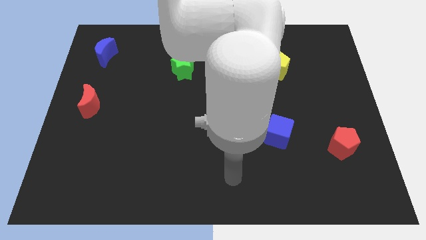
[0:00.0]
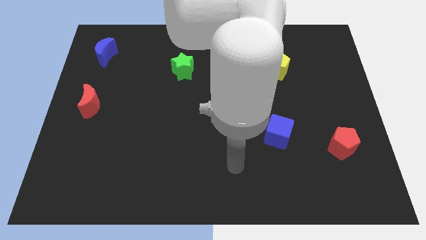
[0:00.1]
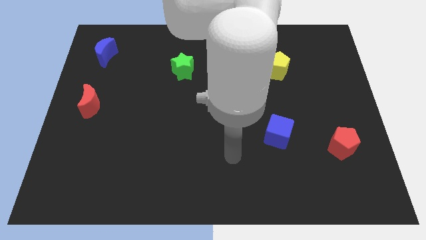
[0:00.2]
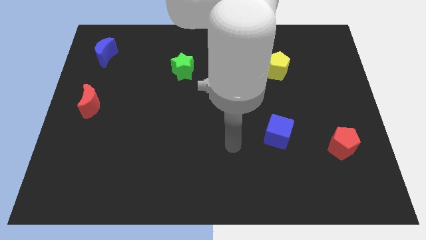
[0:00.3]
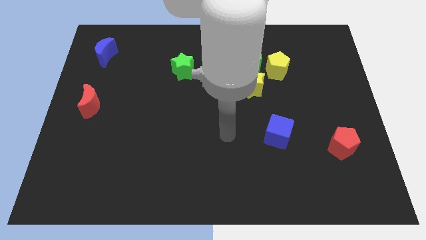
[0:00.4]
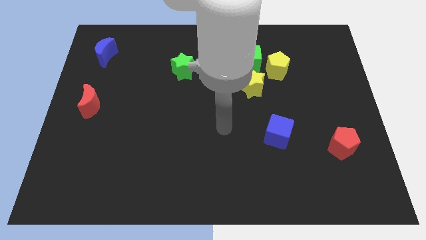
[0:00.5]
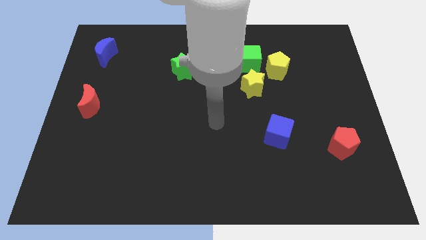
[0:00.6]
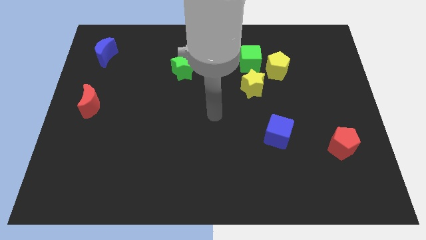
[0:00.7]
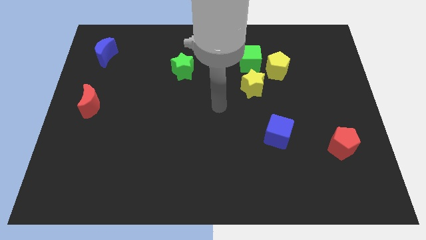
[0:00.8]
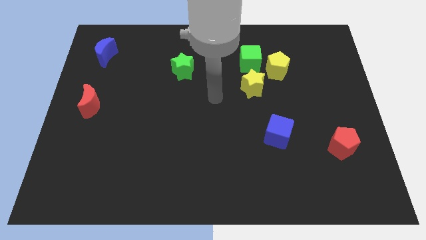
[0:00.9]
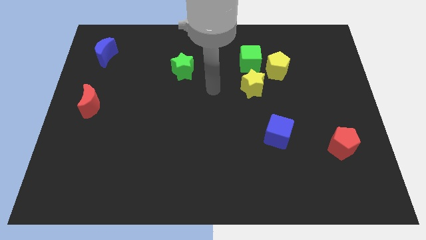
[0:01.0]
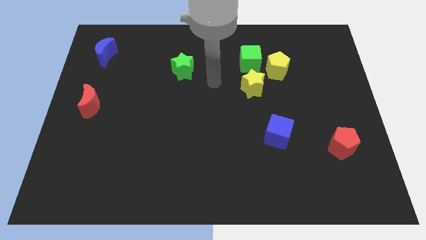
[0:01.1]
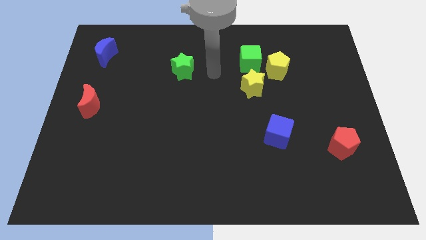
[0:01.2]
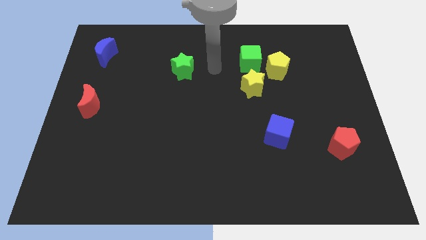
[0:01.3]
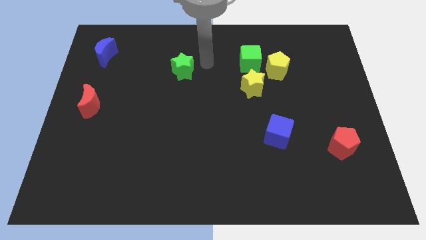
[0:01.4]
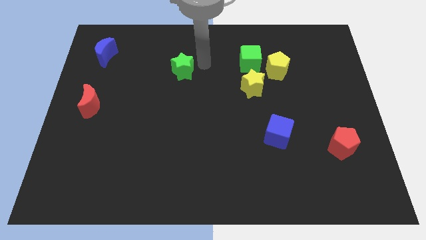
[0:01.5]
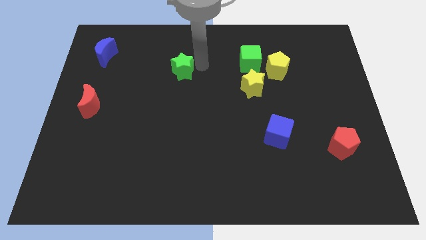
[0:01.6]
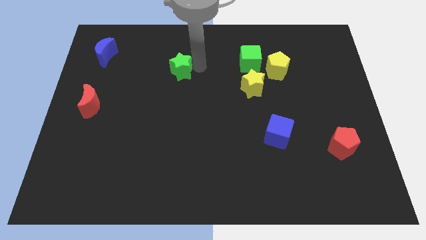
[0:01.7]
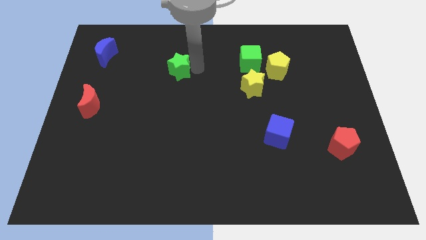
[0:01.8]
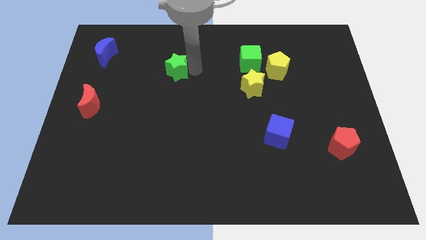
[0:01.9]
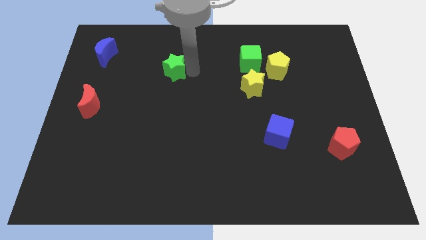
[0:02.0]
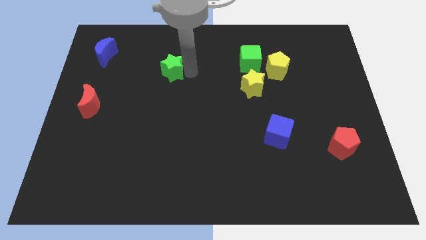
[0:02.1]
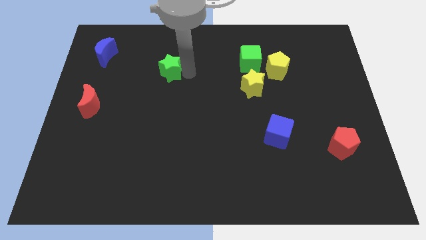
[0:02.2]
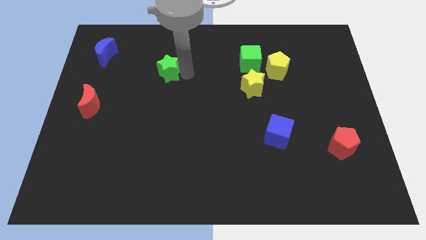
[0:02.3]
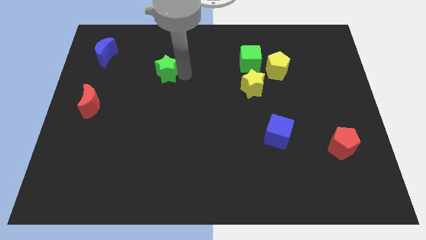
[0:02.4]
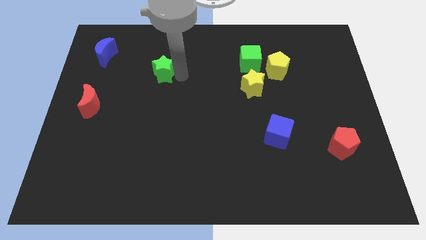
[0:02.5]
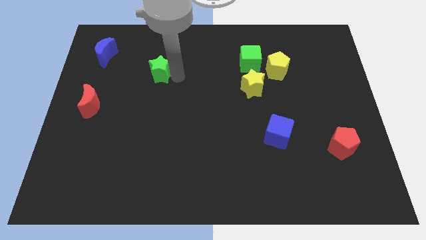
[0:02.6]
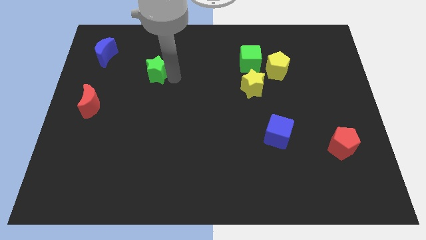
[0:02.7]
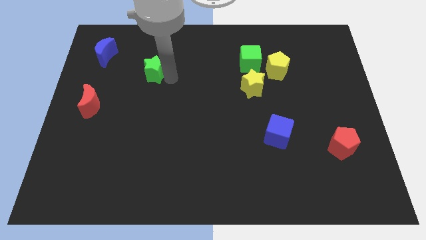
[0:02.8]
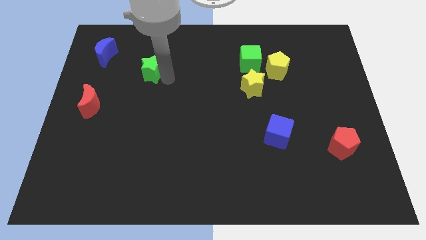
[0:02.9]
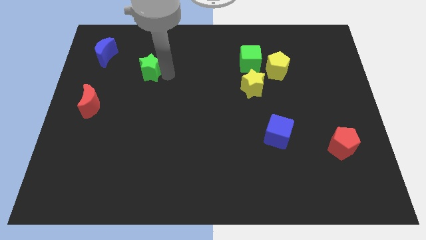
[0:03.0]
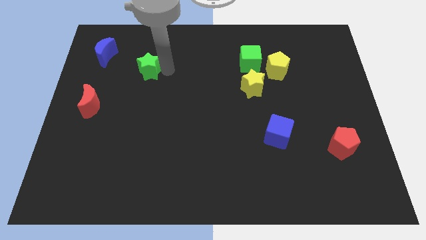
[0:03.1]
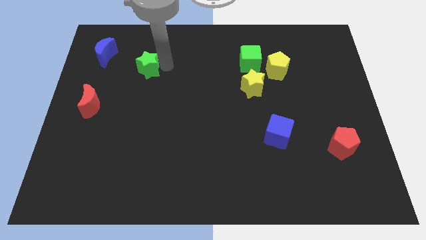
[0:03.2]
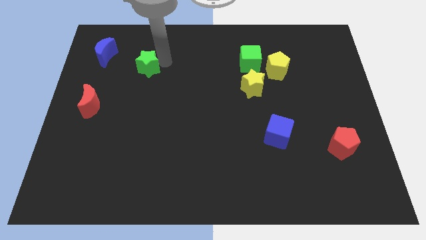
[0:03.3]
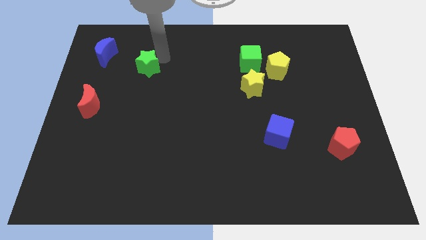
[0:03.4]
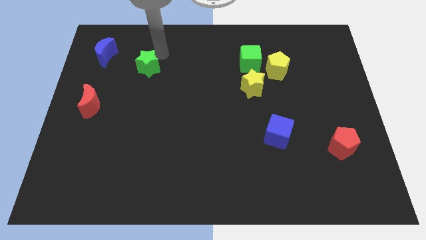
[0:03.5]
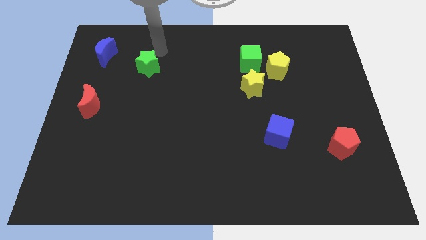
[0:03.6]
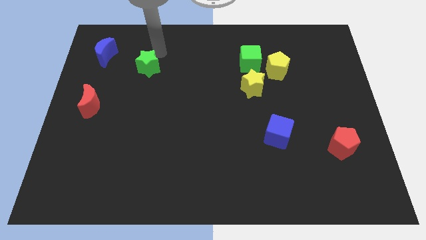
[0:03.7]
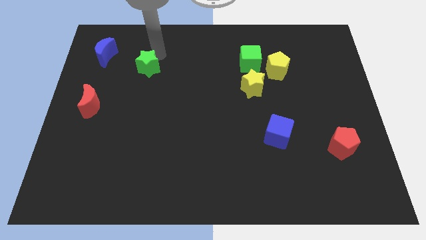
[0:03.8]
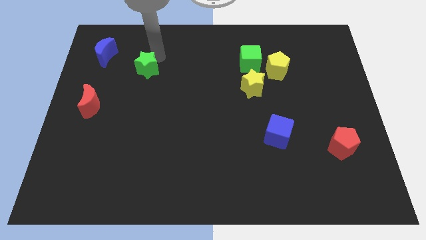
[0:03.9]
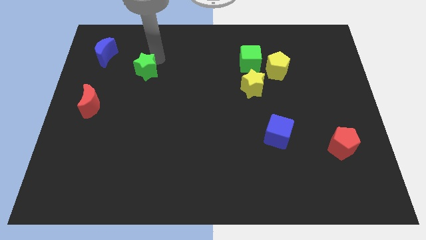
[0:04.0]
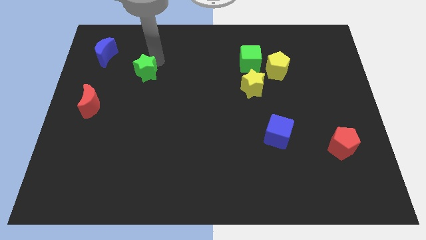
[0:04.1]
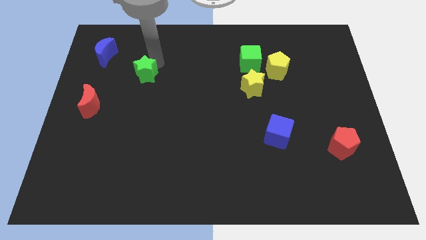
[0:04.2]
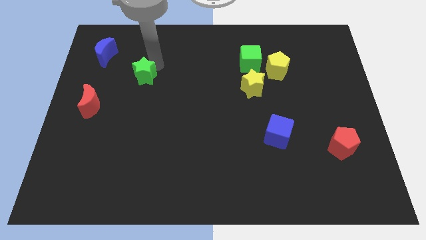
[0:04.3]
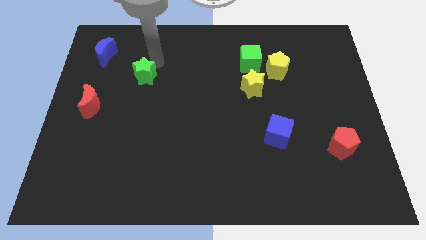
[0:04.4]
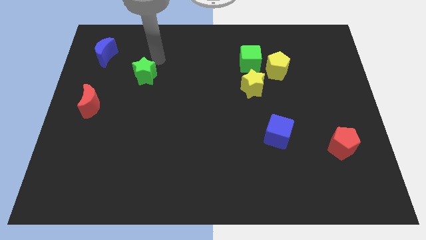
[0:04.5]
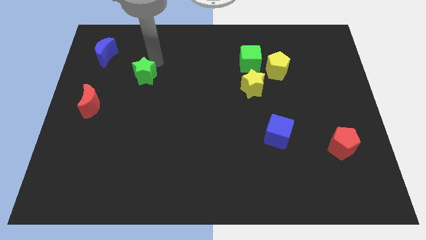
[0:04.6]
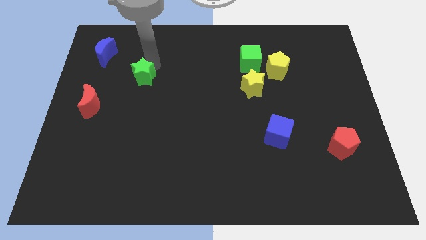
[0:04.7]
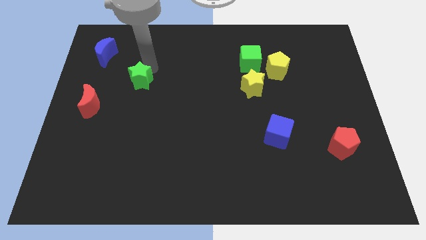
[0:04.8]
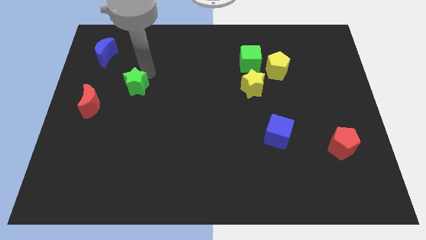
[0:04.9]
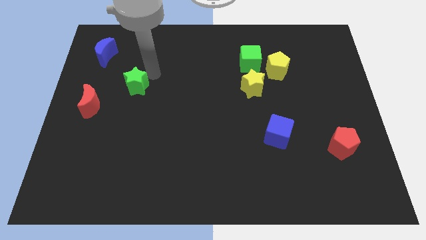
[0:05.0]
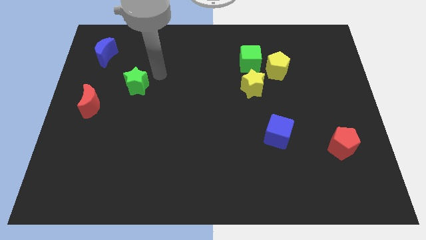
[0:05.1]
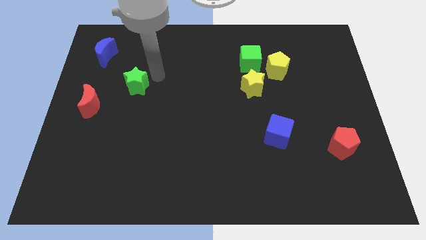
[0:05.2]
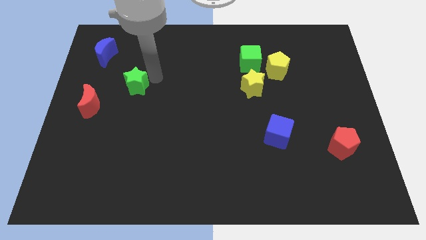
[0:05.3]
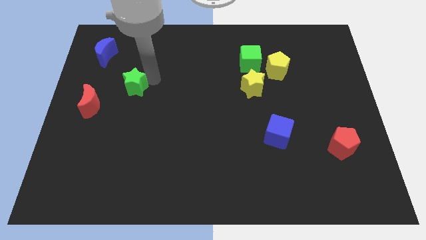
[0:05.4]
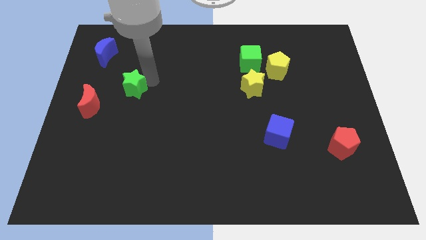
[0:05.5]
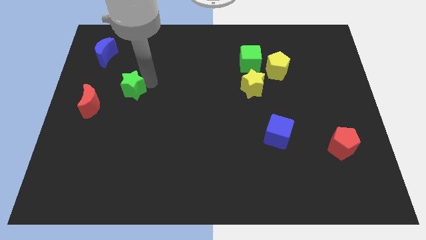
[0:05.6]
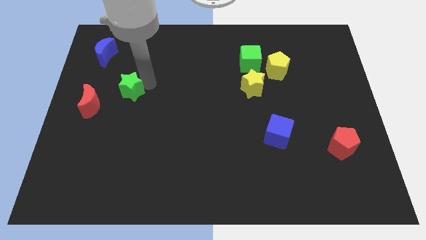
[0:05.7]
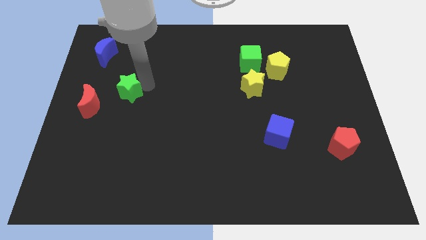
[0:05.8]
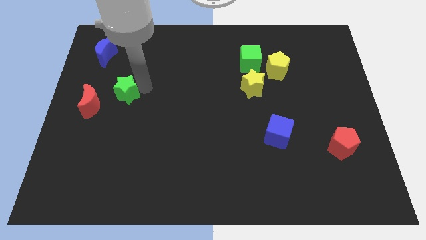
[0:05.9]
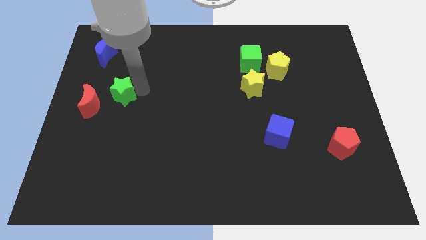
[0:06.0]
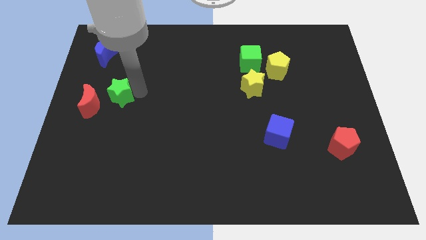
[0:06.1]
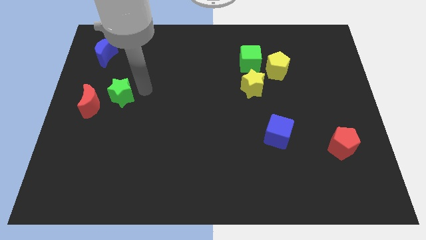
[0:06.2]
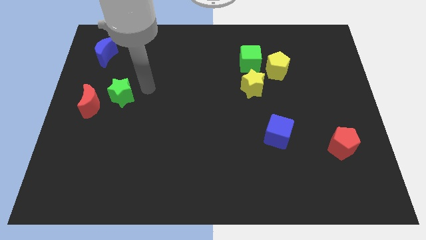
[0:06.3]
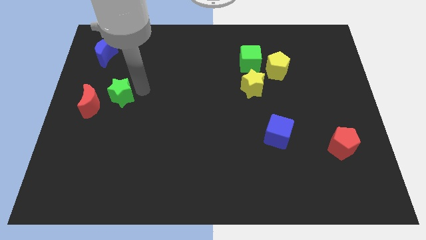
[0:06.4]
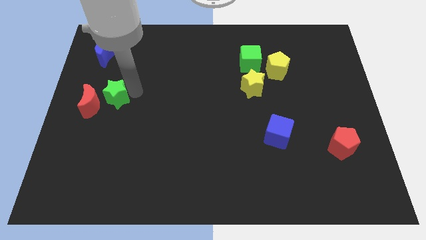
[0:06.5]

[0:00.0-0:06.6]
put the green star next to the red moon
